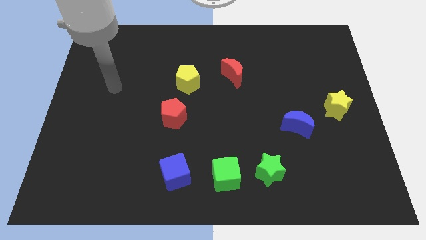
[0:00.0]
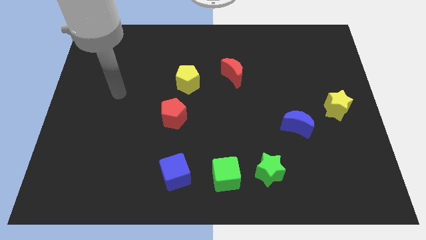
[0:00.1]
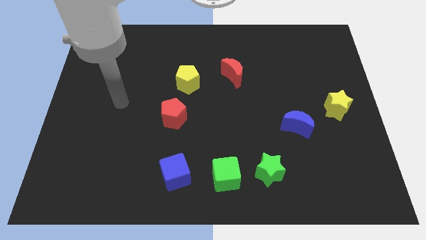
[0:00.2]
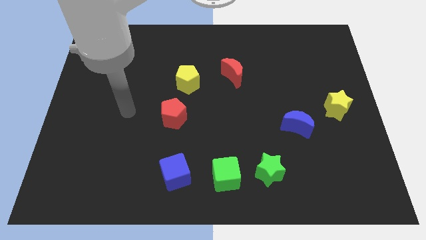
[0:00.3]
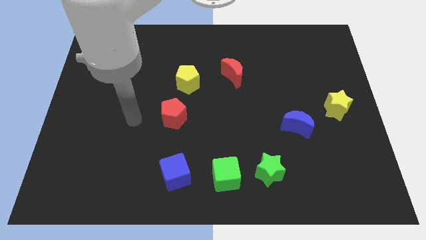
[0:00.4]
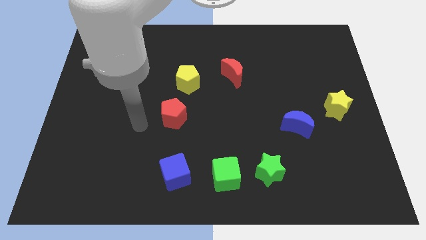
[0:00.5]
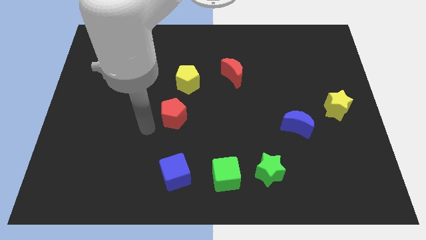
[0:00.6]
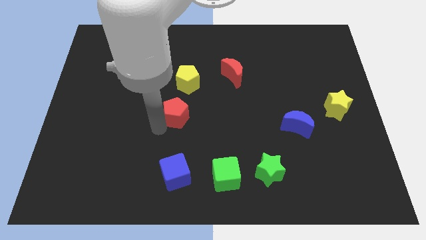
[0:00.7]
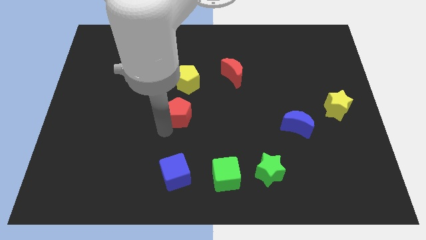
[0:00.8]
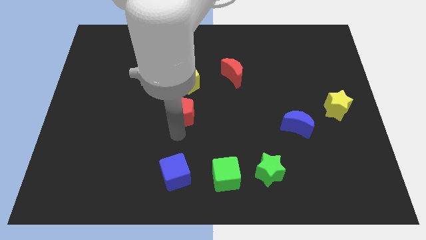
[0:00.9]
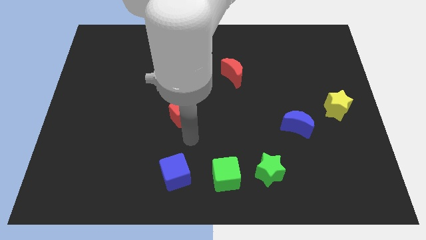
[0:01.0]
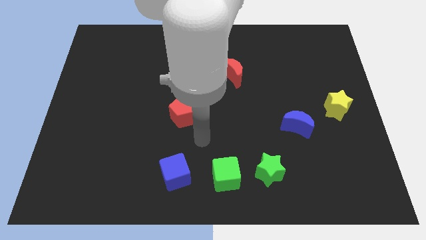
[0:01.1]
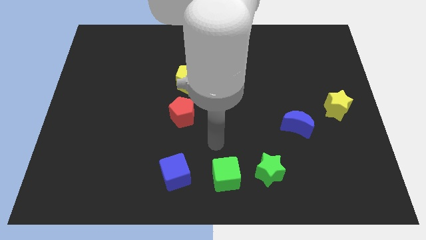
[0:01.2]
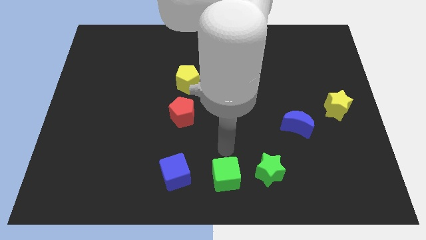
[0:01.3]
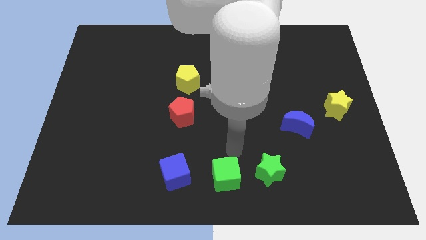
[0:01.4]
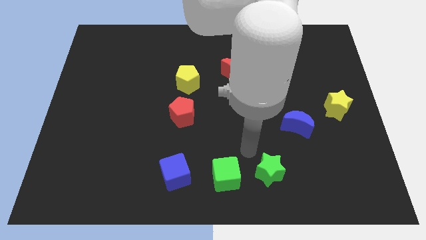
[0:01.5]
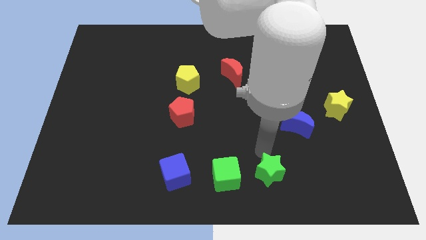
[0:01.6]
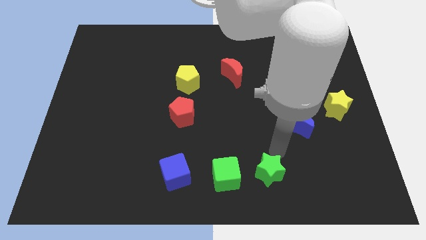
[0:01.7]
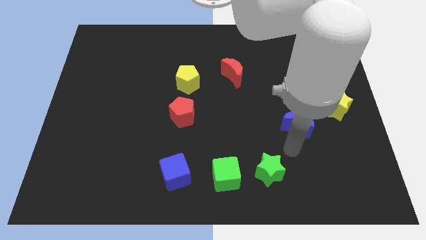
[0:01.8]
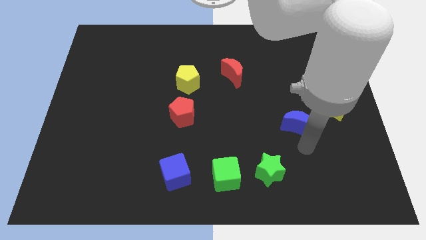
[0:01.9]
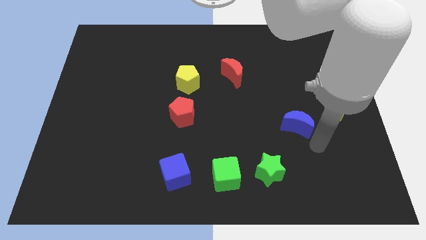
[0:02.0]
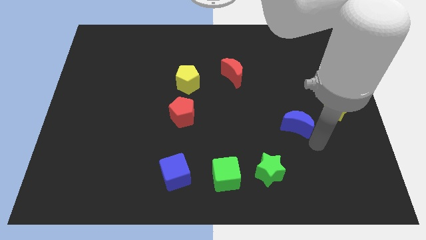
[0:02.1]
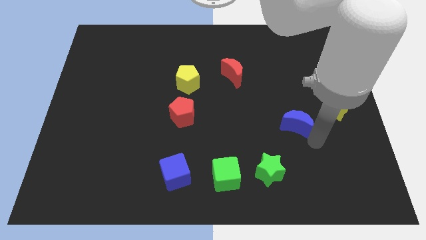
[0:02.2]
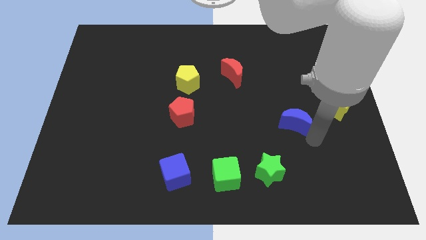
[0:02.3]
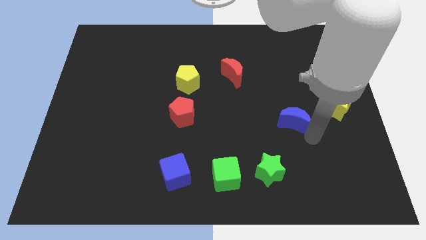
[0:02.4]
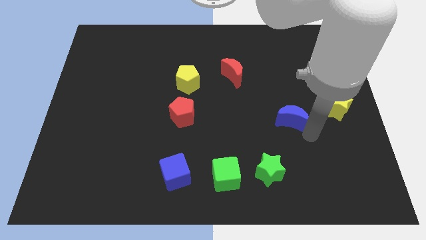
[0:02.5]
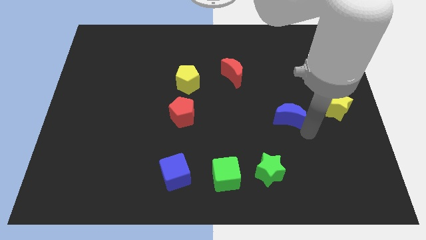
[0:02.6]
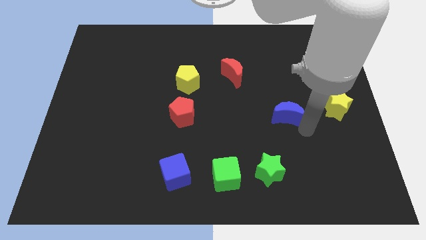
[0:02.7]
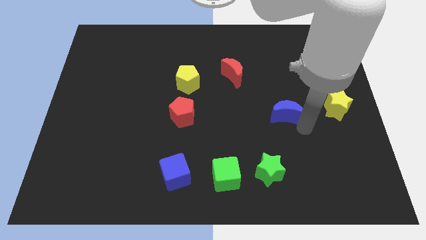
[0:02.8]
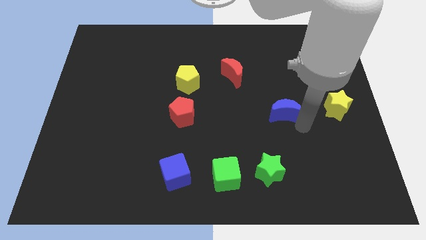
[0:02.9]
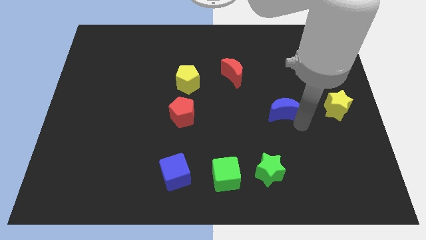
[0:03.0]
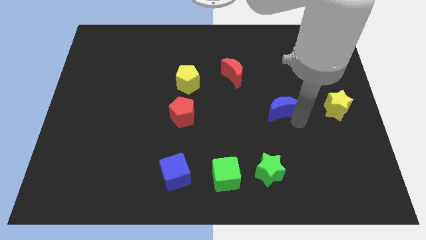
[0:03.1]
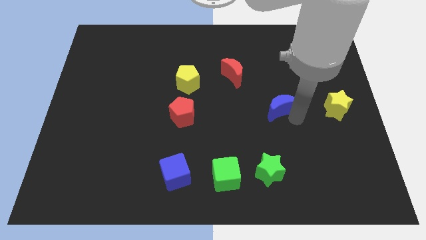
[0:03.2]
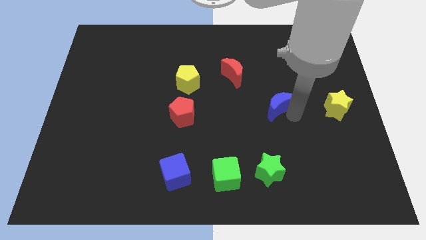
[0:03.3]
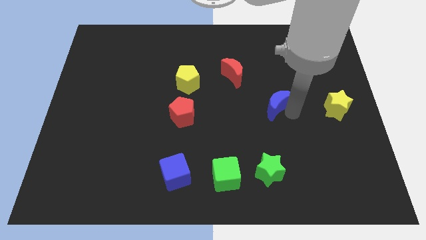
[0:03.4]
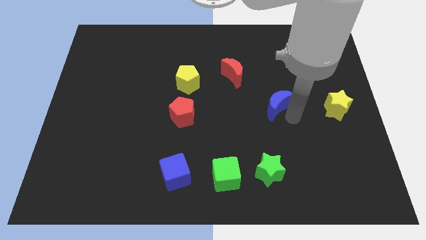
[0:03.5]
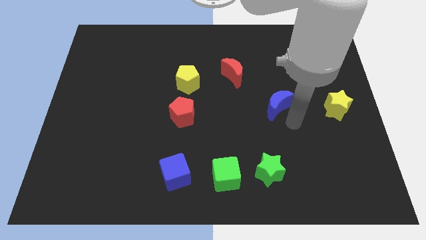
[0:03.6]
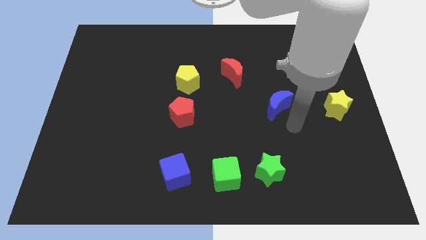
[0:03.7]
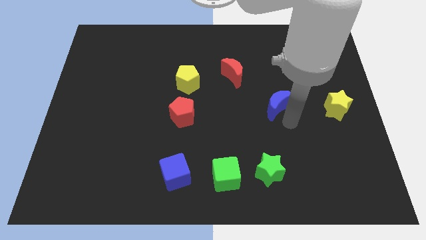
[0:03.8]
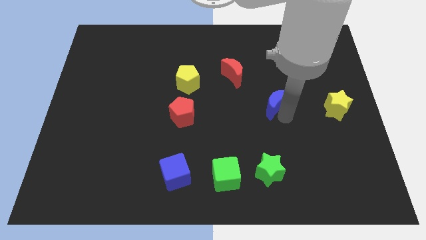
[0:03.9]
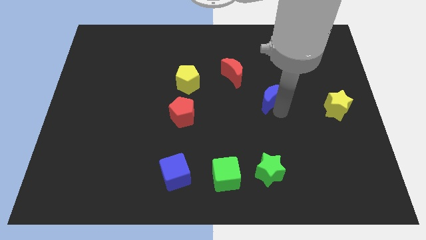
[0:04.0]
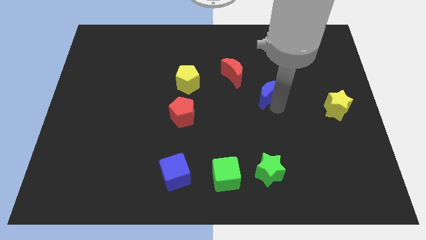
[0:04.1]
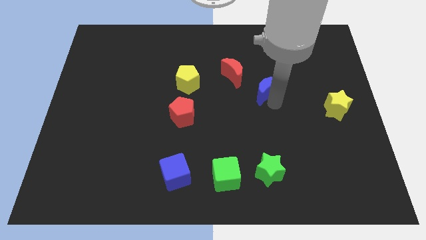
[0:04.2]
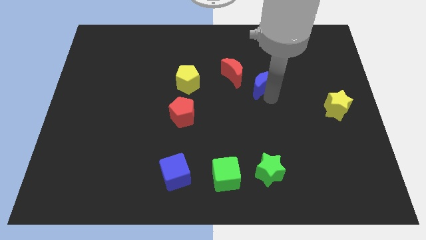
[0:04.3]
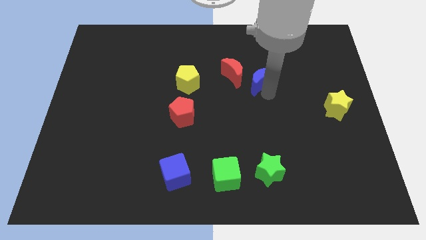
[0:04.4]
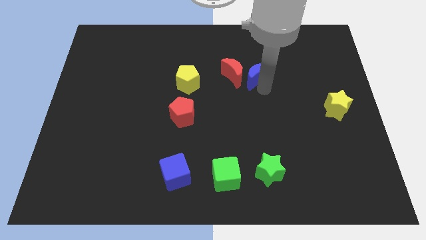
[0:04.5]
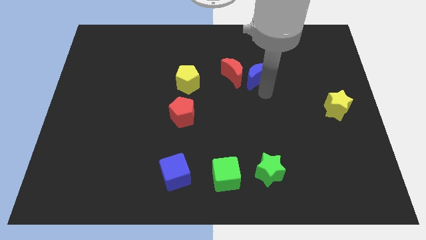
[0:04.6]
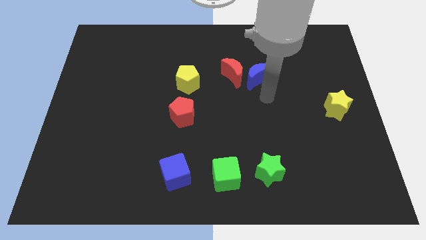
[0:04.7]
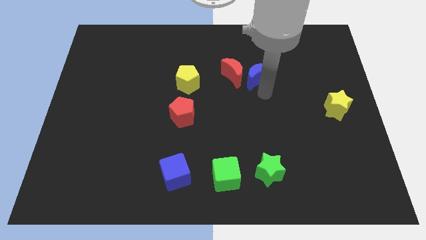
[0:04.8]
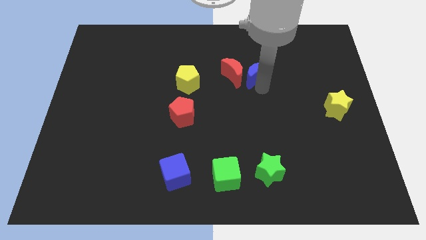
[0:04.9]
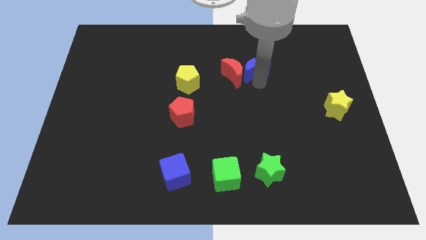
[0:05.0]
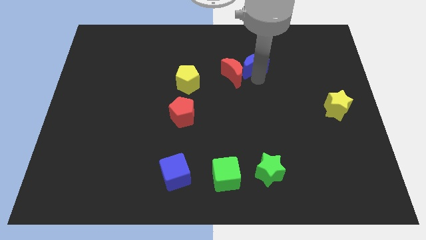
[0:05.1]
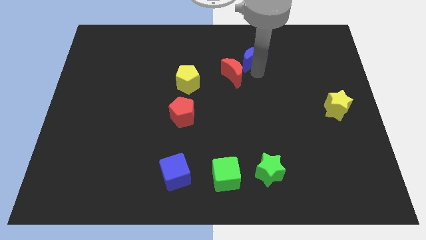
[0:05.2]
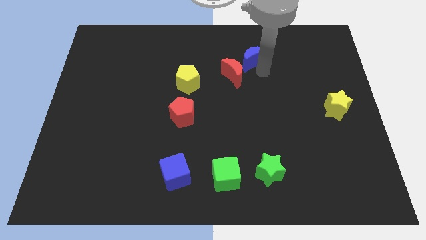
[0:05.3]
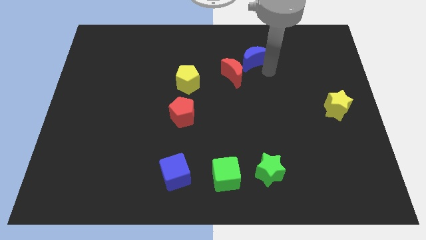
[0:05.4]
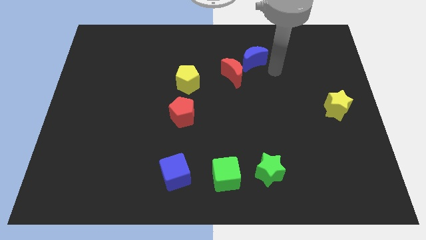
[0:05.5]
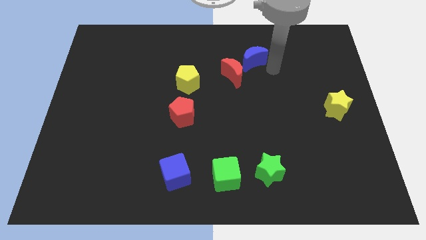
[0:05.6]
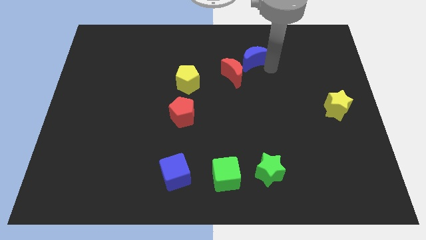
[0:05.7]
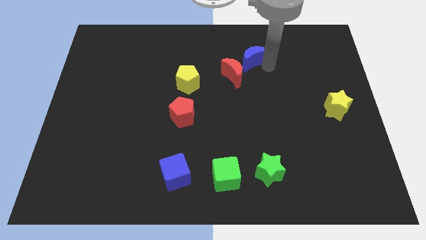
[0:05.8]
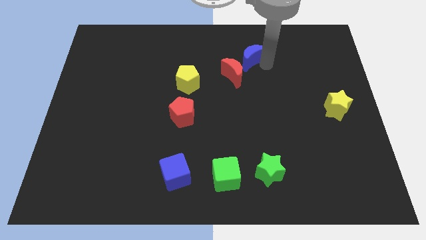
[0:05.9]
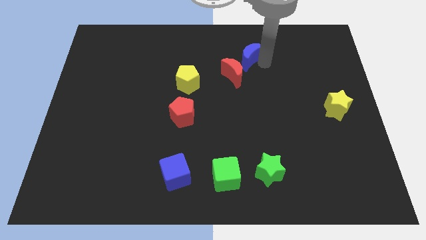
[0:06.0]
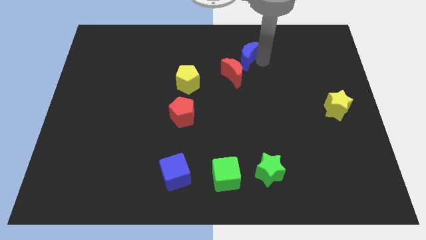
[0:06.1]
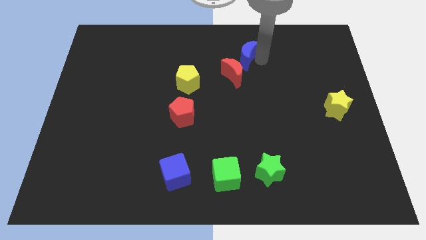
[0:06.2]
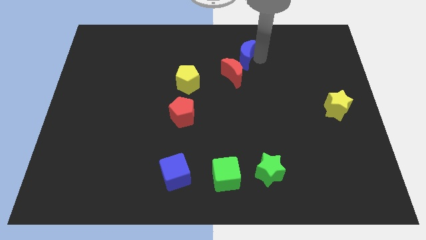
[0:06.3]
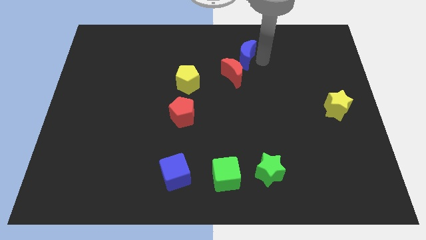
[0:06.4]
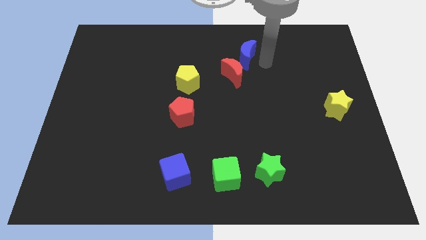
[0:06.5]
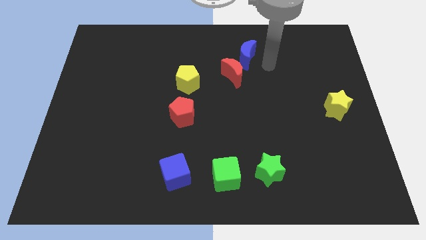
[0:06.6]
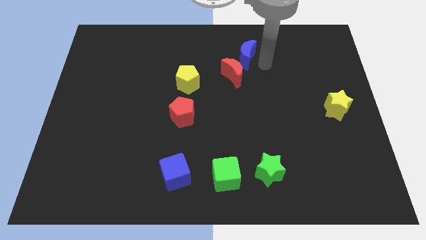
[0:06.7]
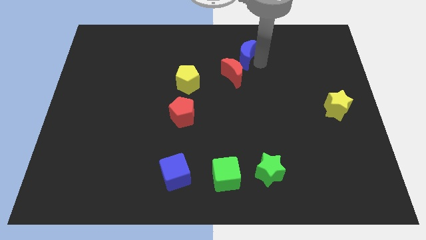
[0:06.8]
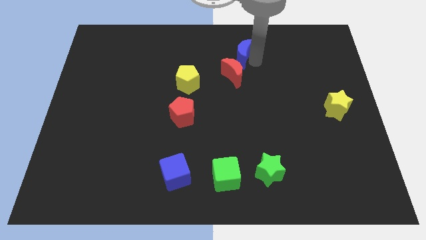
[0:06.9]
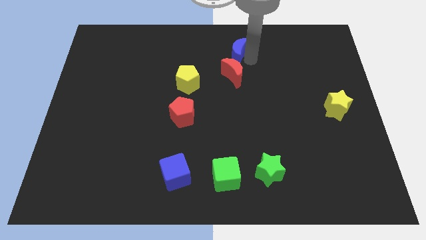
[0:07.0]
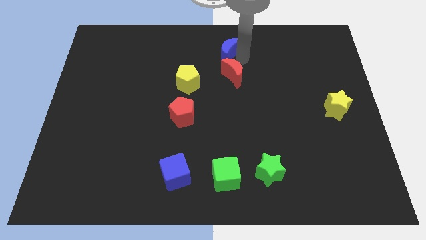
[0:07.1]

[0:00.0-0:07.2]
put the blue moon to the top side

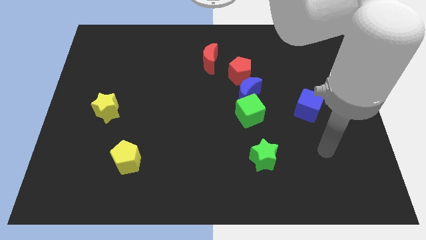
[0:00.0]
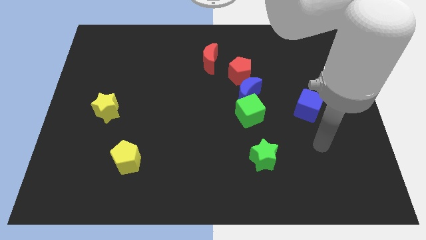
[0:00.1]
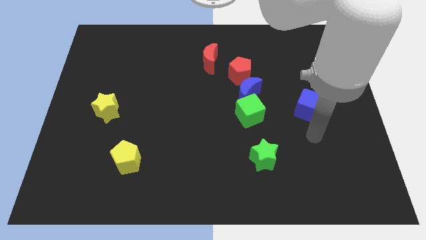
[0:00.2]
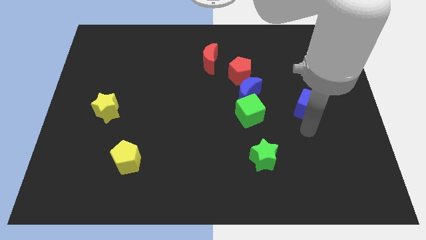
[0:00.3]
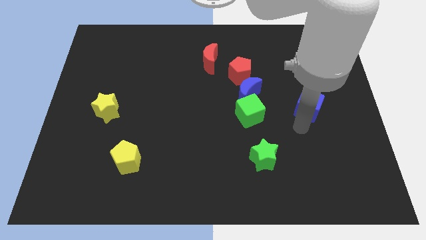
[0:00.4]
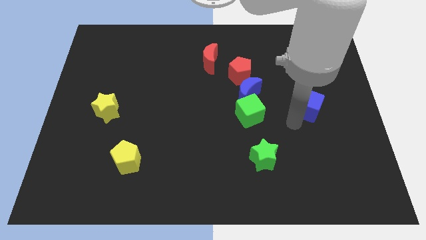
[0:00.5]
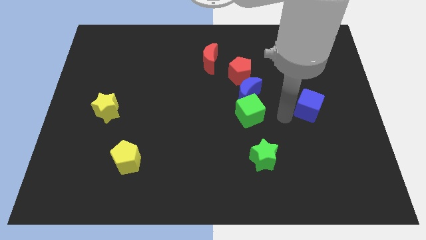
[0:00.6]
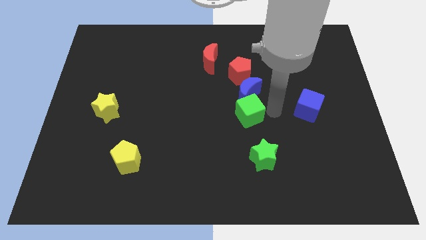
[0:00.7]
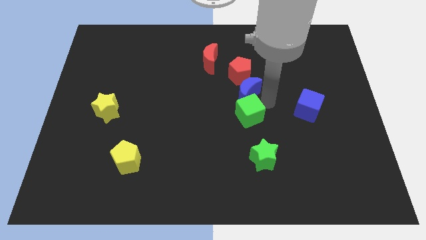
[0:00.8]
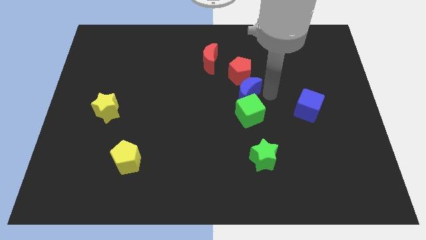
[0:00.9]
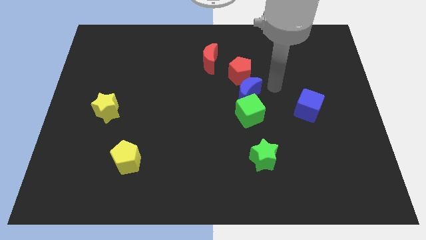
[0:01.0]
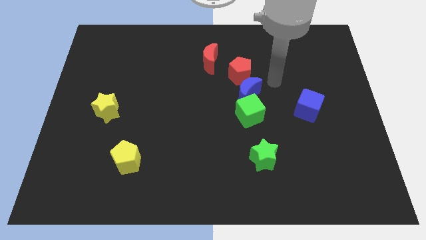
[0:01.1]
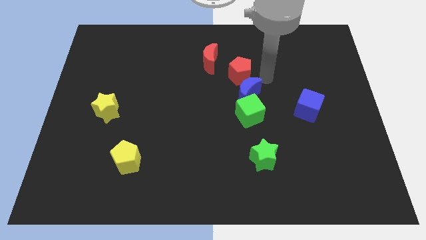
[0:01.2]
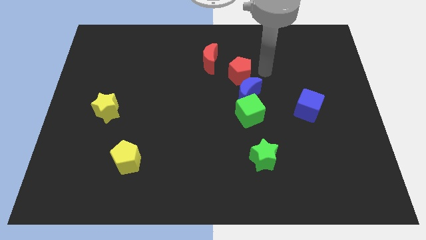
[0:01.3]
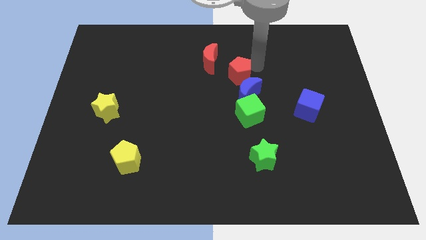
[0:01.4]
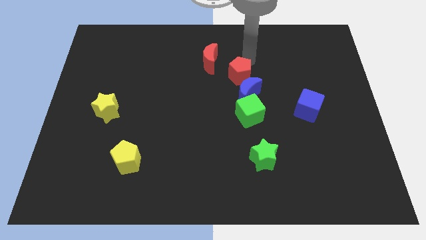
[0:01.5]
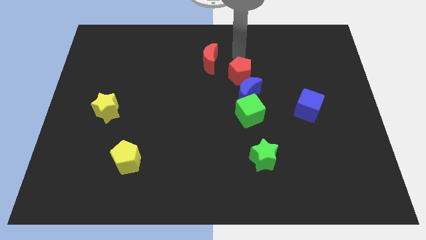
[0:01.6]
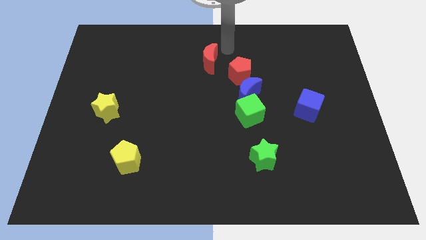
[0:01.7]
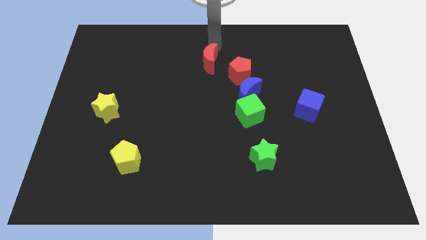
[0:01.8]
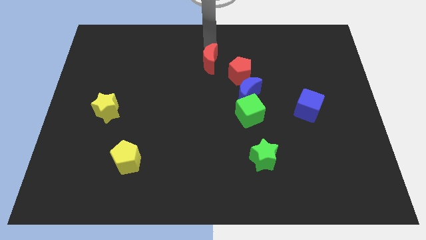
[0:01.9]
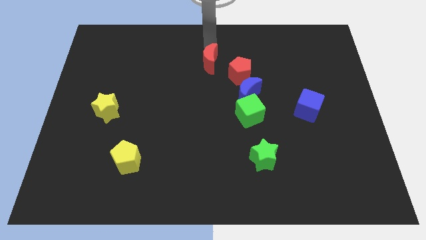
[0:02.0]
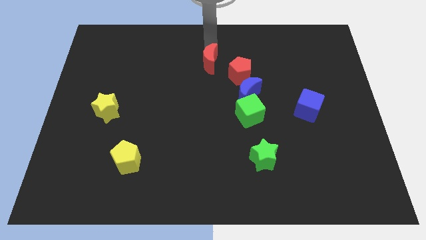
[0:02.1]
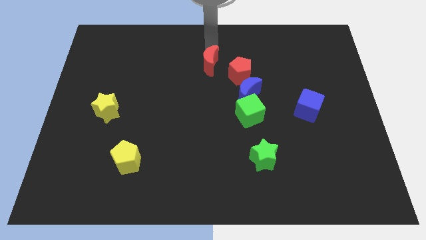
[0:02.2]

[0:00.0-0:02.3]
put the red moon to the middle
